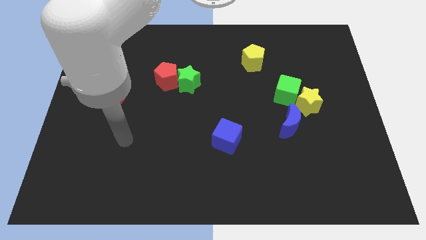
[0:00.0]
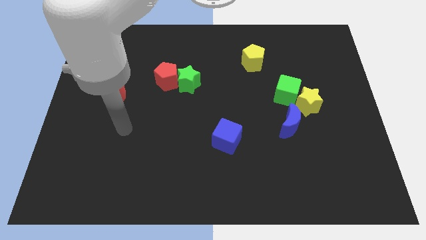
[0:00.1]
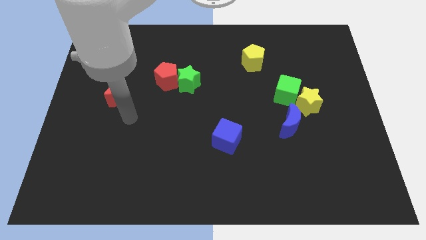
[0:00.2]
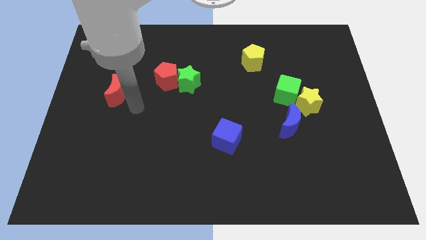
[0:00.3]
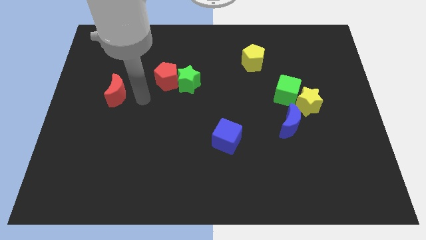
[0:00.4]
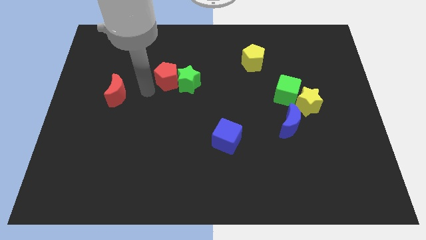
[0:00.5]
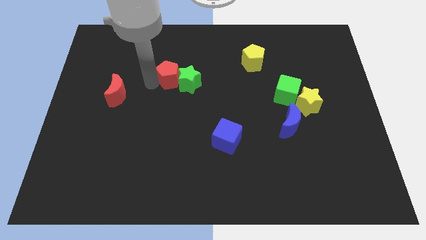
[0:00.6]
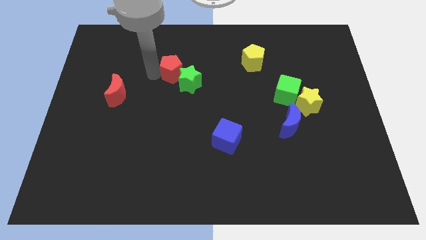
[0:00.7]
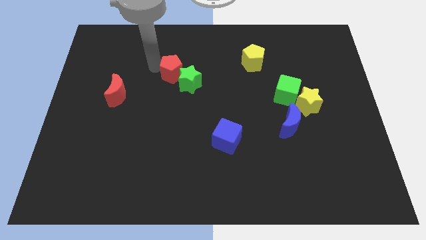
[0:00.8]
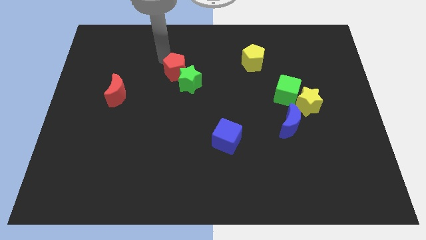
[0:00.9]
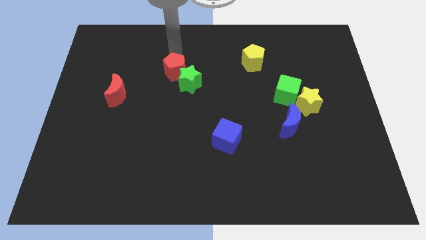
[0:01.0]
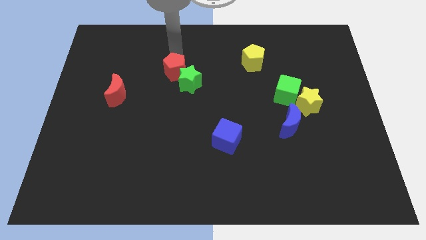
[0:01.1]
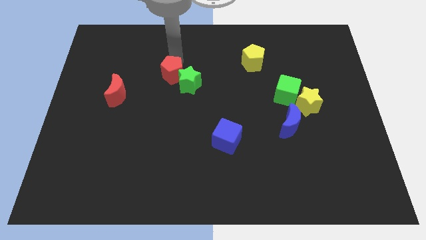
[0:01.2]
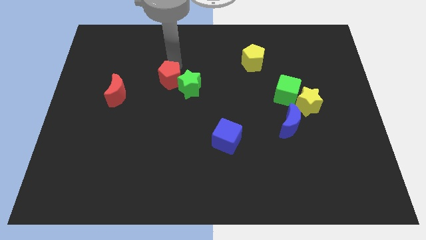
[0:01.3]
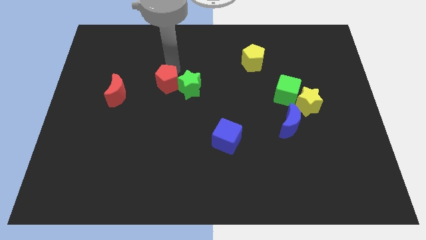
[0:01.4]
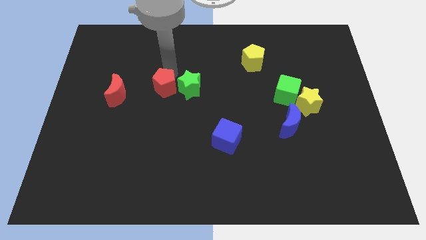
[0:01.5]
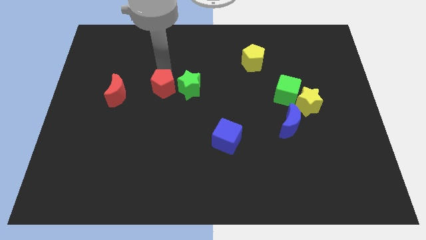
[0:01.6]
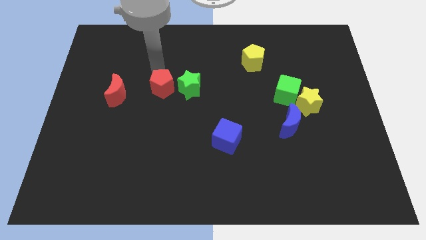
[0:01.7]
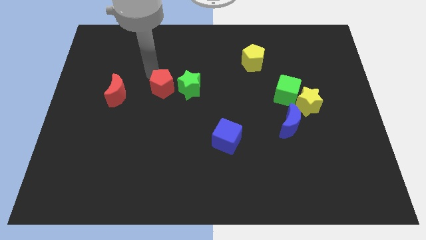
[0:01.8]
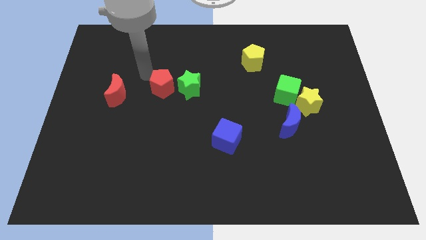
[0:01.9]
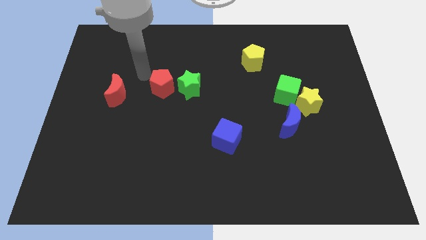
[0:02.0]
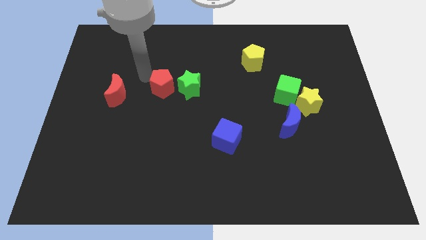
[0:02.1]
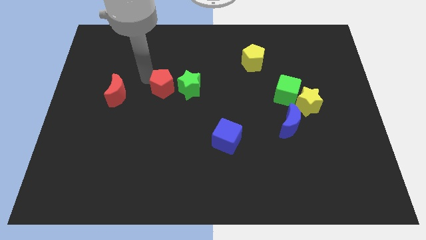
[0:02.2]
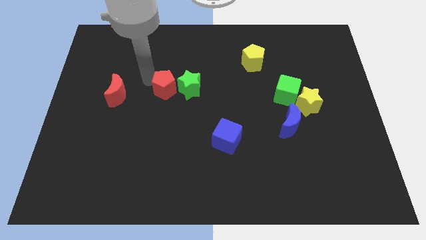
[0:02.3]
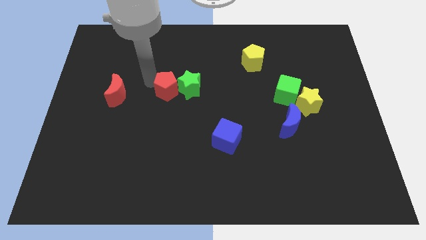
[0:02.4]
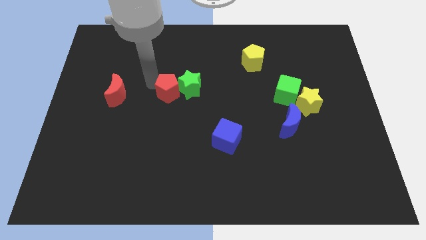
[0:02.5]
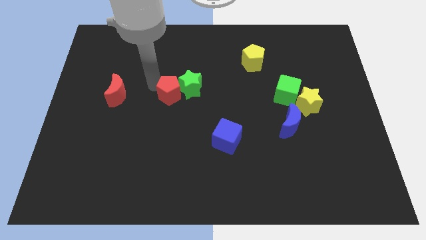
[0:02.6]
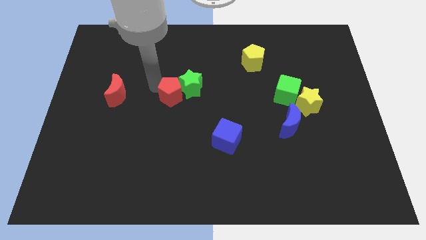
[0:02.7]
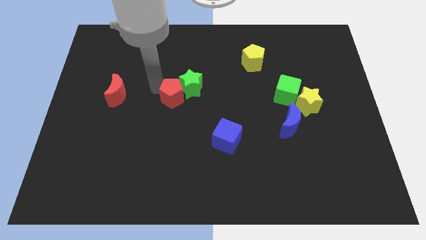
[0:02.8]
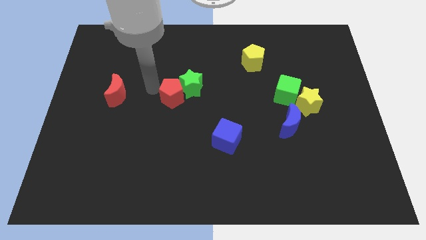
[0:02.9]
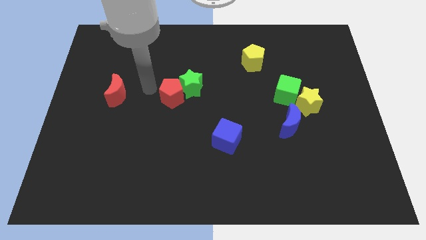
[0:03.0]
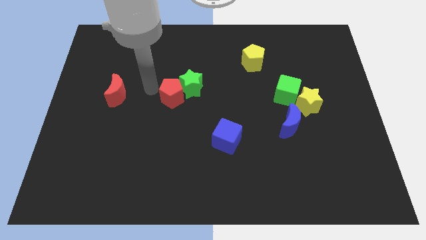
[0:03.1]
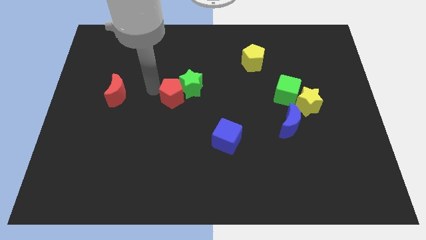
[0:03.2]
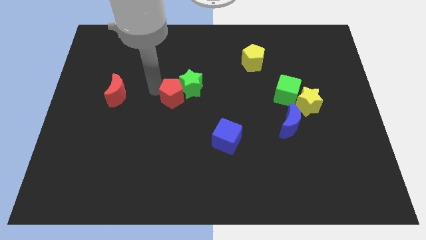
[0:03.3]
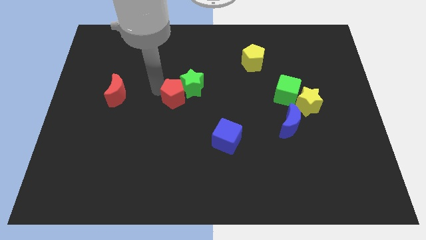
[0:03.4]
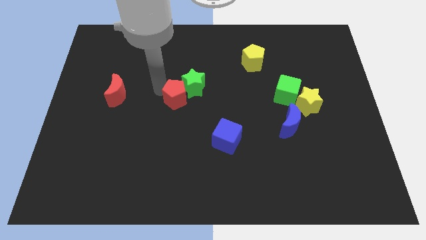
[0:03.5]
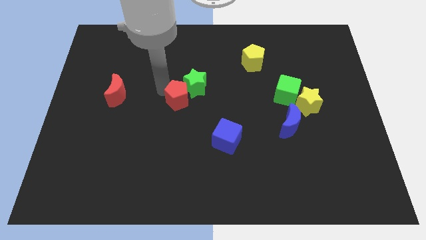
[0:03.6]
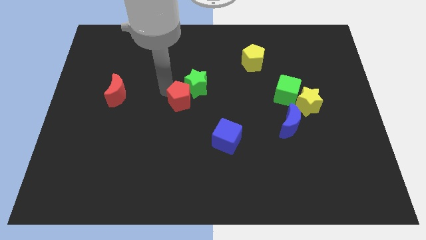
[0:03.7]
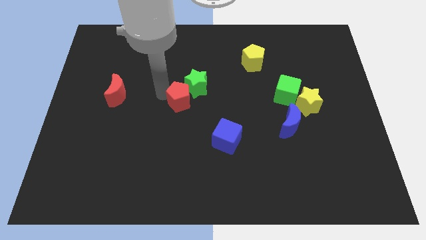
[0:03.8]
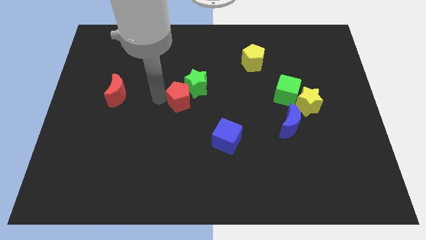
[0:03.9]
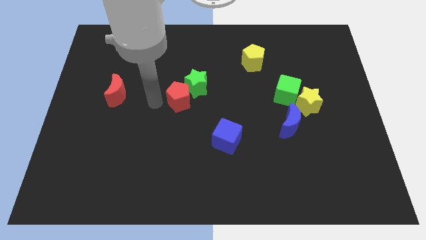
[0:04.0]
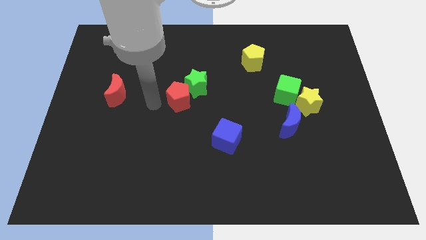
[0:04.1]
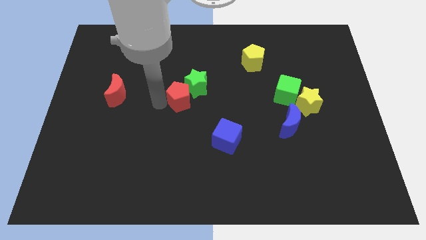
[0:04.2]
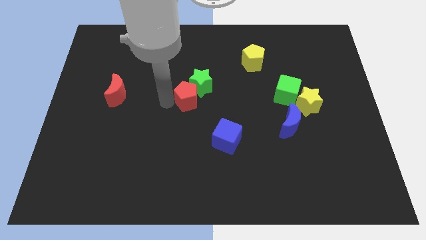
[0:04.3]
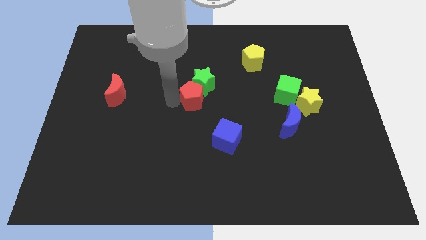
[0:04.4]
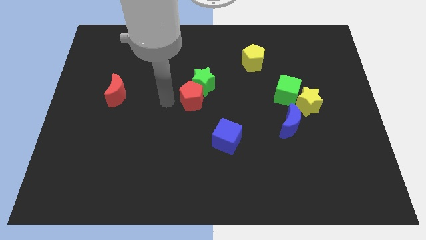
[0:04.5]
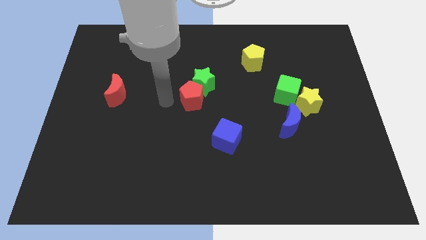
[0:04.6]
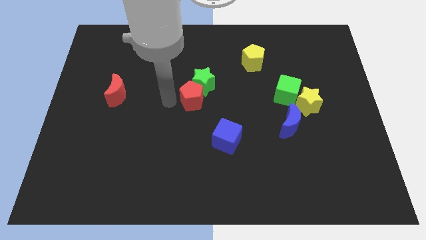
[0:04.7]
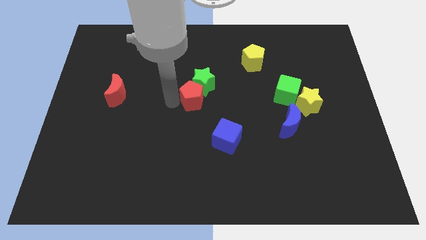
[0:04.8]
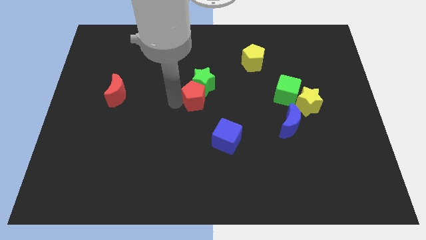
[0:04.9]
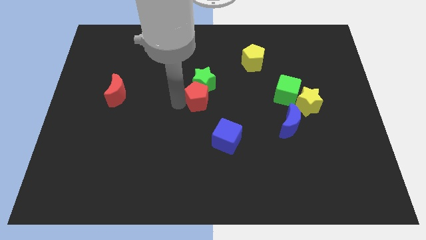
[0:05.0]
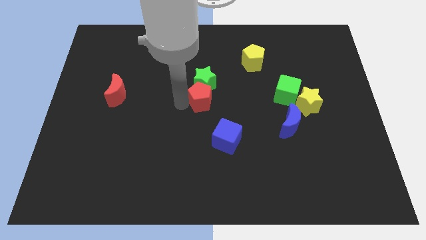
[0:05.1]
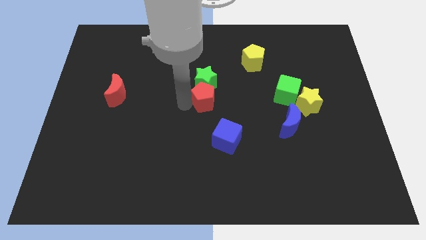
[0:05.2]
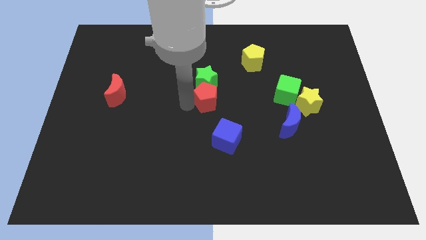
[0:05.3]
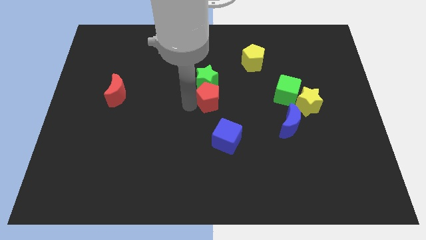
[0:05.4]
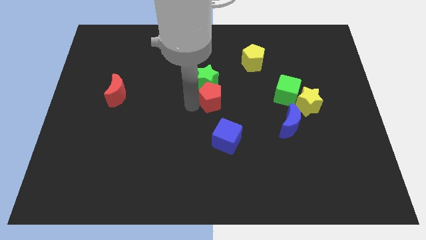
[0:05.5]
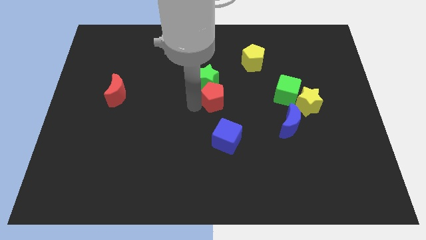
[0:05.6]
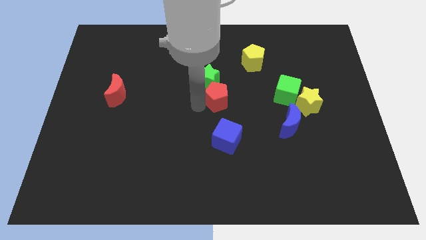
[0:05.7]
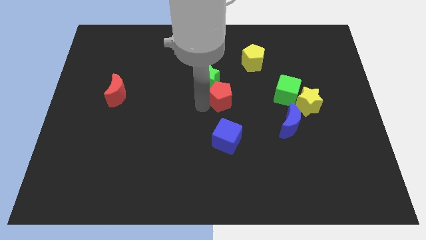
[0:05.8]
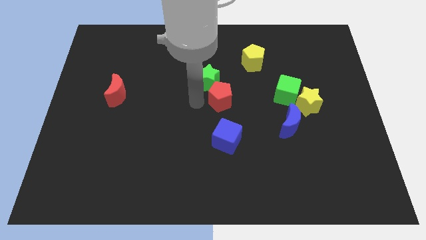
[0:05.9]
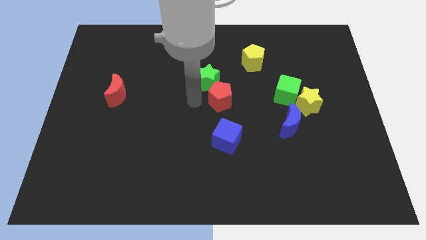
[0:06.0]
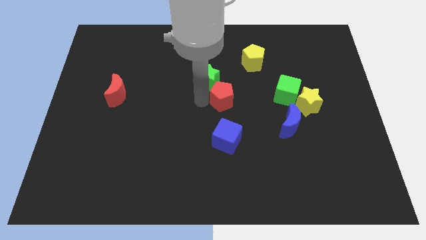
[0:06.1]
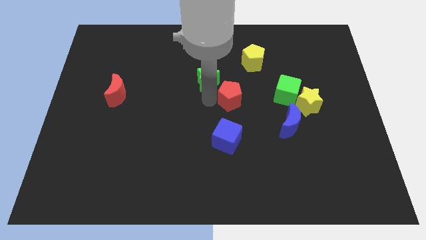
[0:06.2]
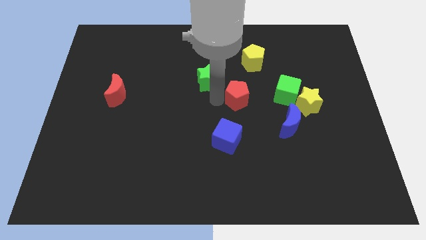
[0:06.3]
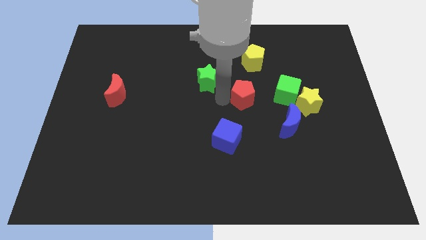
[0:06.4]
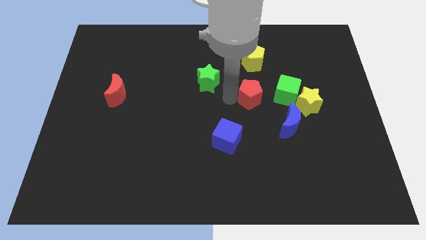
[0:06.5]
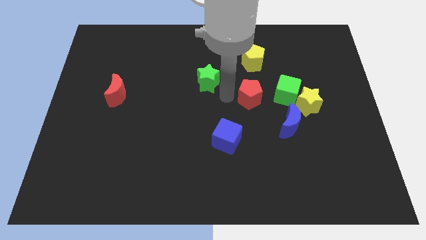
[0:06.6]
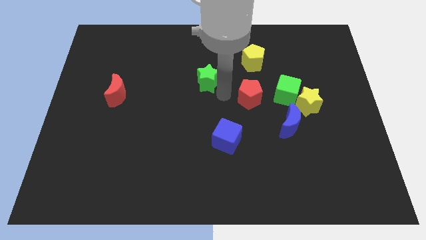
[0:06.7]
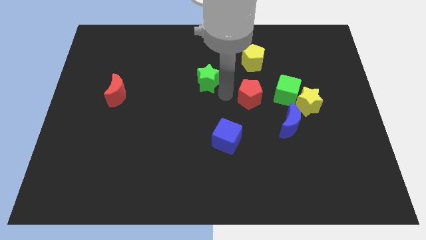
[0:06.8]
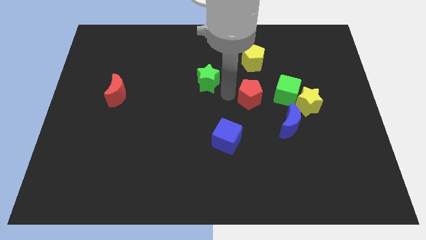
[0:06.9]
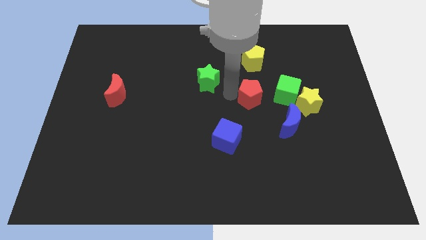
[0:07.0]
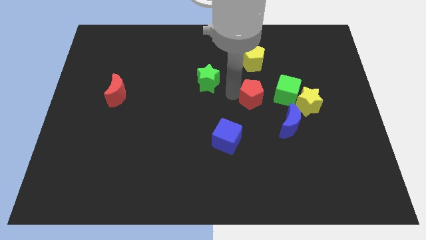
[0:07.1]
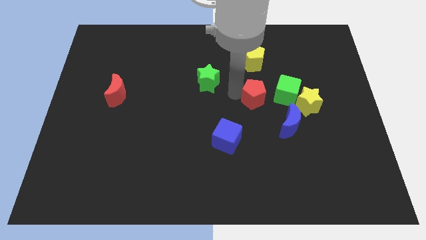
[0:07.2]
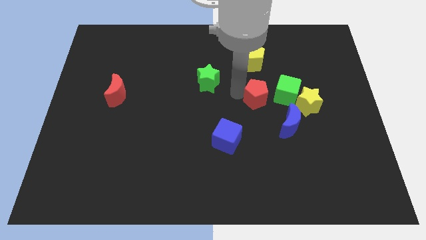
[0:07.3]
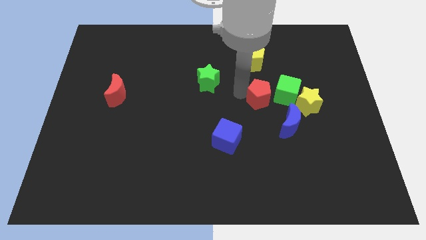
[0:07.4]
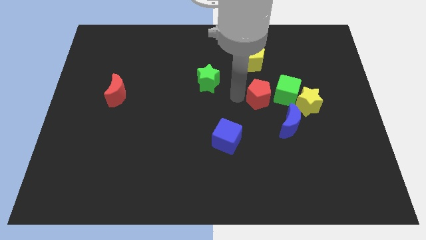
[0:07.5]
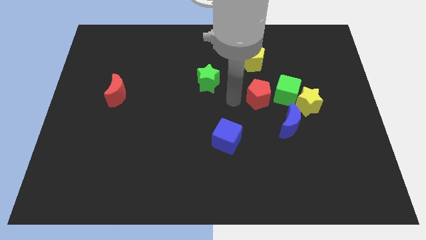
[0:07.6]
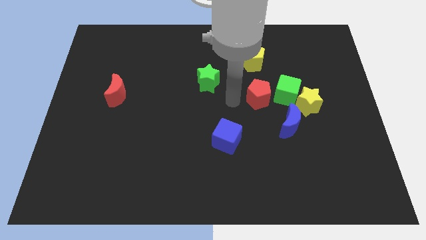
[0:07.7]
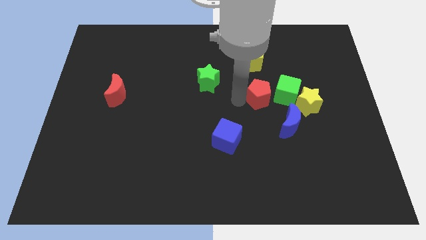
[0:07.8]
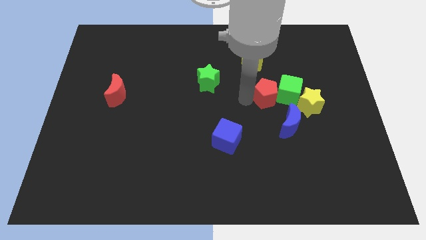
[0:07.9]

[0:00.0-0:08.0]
push the red pentagon next to the green cube
